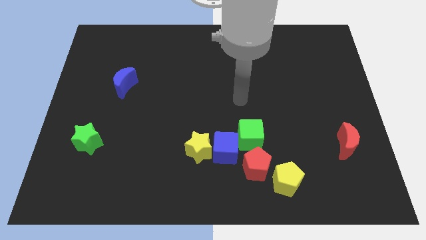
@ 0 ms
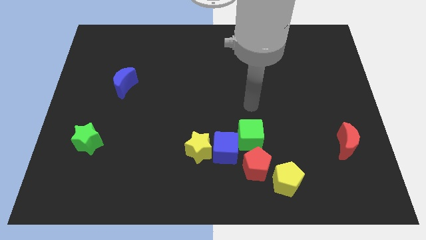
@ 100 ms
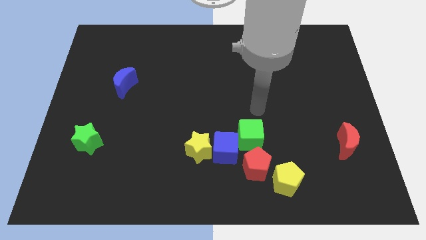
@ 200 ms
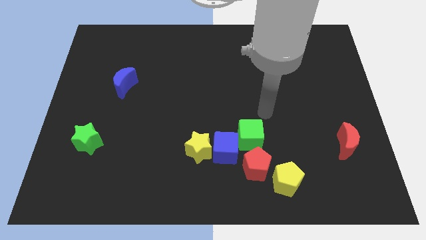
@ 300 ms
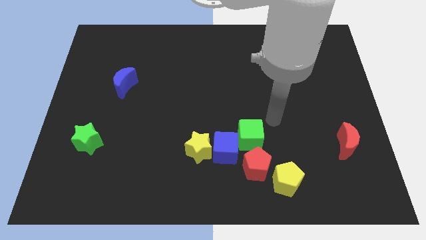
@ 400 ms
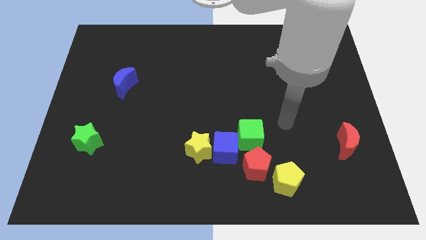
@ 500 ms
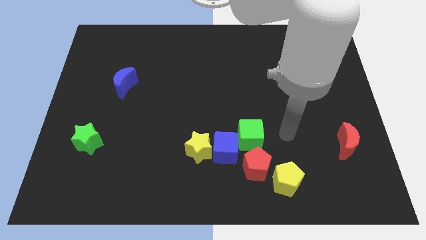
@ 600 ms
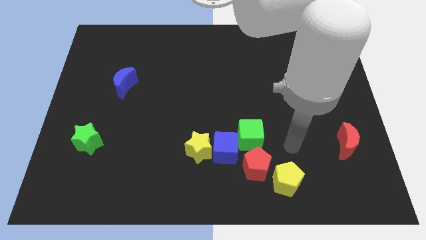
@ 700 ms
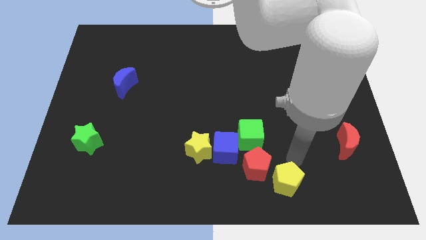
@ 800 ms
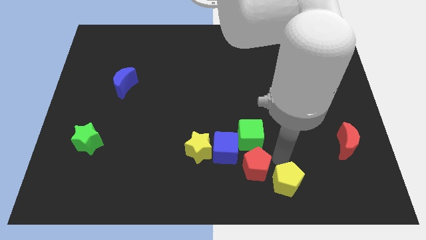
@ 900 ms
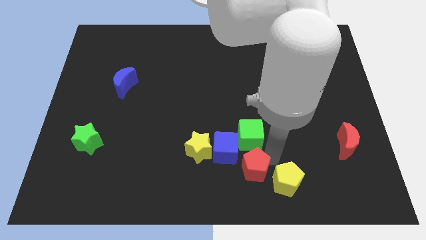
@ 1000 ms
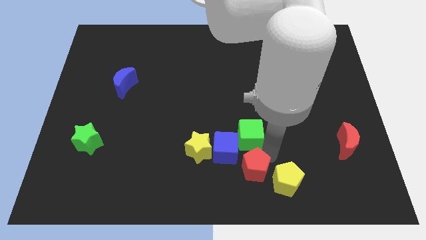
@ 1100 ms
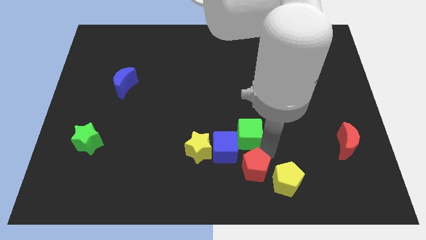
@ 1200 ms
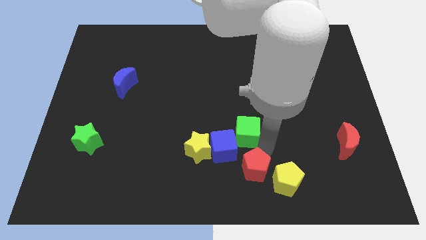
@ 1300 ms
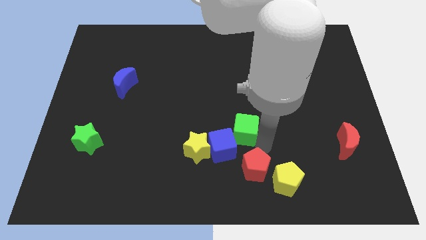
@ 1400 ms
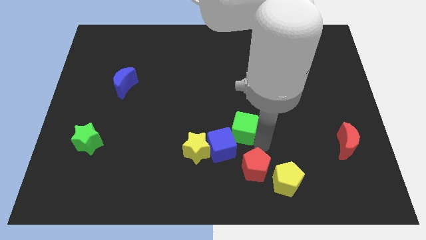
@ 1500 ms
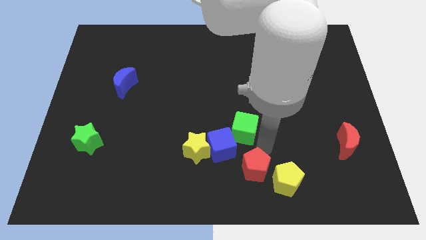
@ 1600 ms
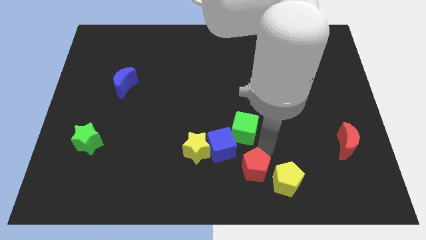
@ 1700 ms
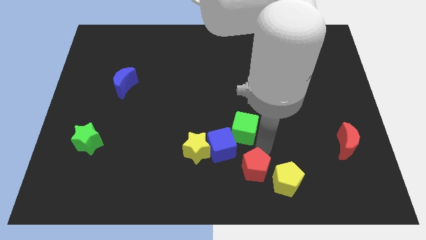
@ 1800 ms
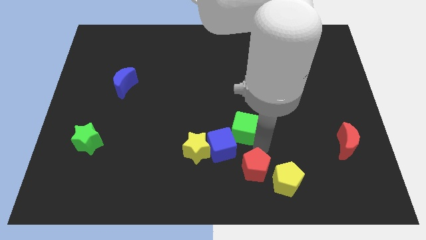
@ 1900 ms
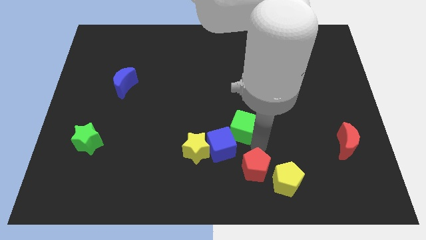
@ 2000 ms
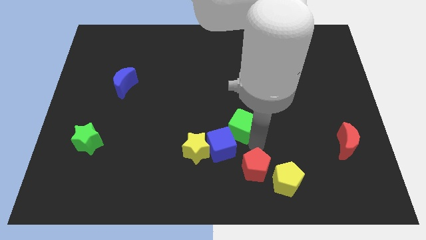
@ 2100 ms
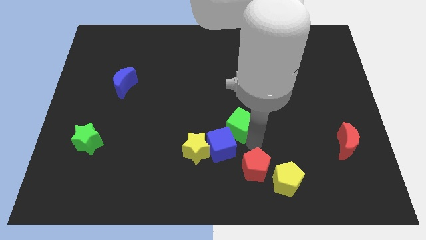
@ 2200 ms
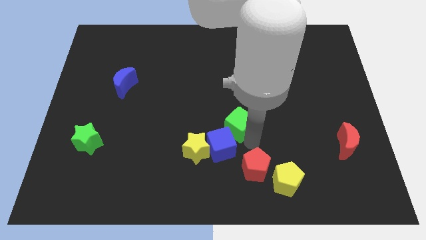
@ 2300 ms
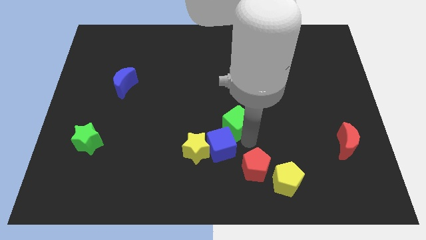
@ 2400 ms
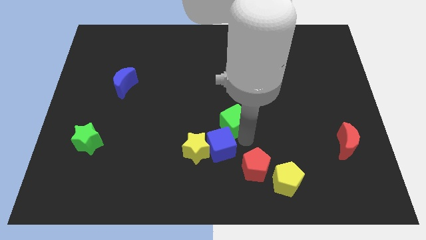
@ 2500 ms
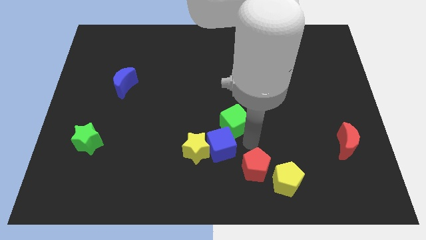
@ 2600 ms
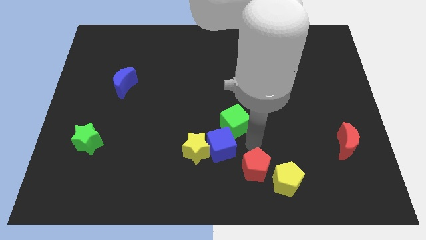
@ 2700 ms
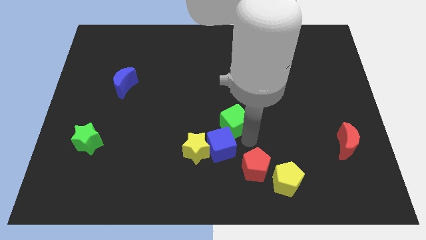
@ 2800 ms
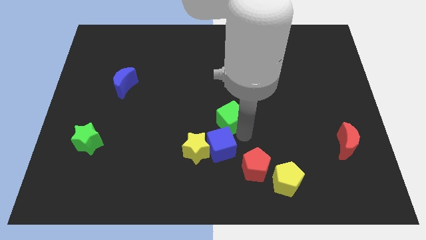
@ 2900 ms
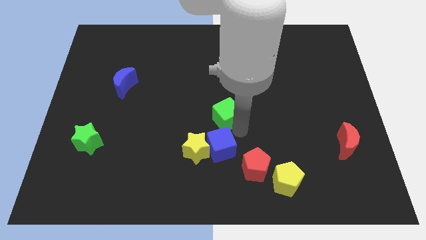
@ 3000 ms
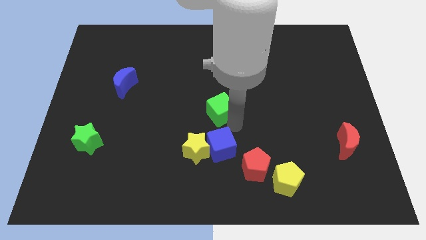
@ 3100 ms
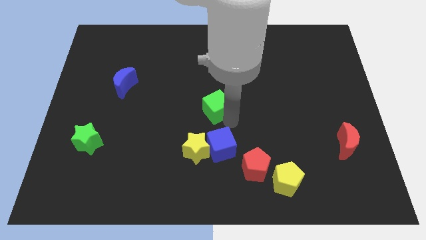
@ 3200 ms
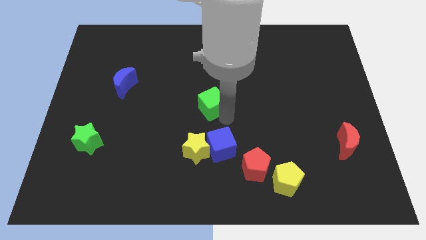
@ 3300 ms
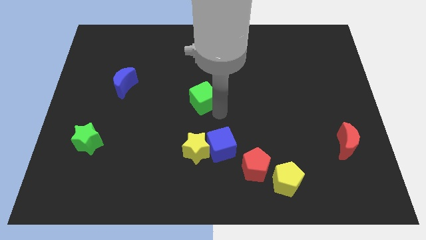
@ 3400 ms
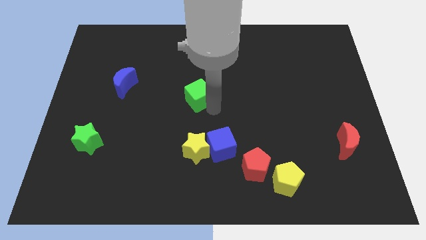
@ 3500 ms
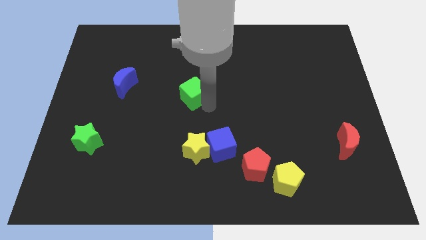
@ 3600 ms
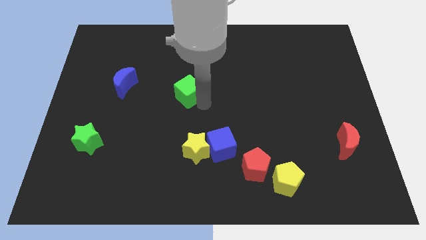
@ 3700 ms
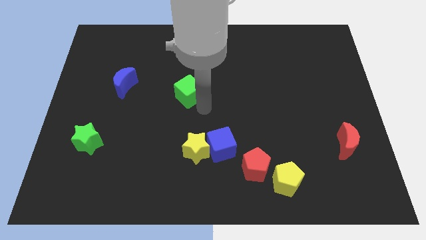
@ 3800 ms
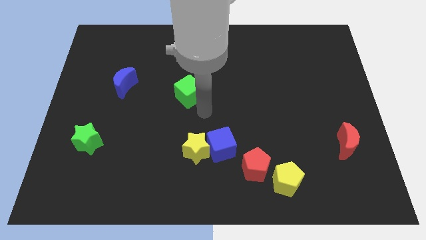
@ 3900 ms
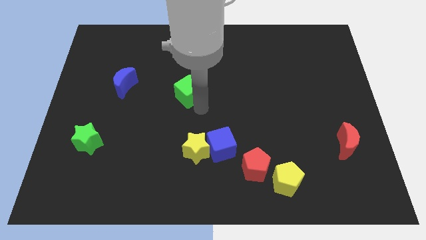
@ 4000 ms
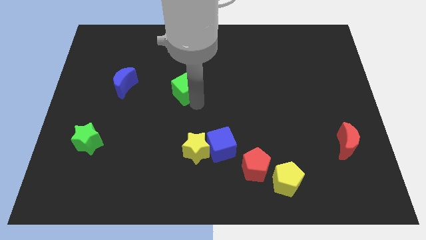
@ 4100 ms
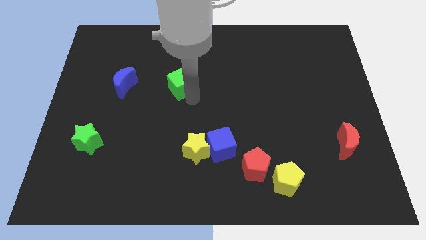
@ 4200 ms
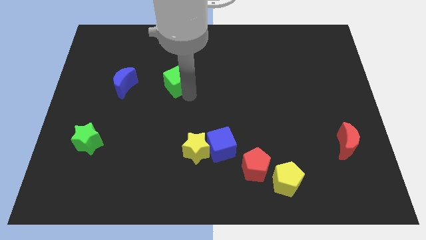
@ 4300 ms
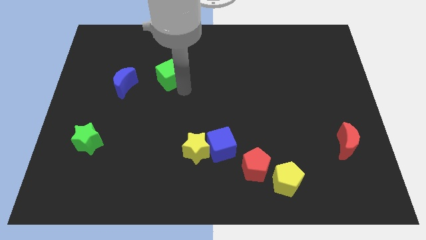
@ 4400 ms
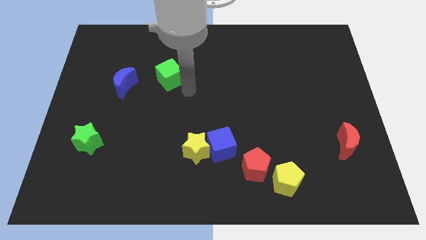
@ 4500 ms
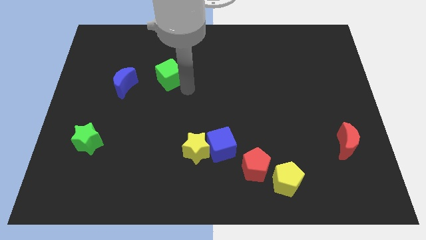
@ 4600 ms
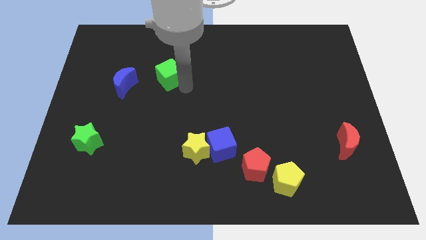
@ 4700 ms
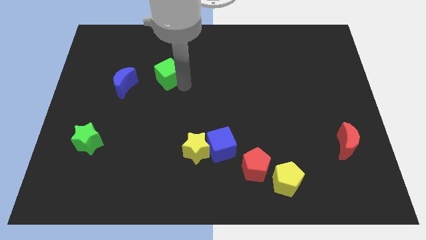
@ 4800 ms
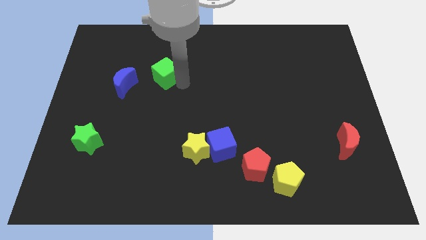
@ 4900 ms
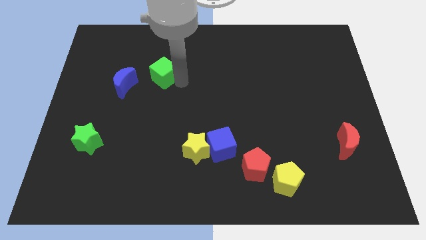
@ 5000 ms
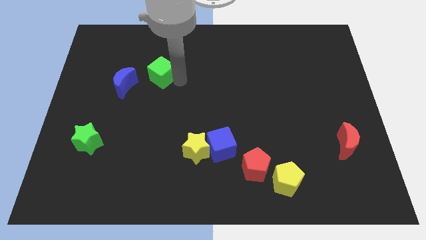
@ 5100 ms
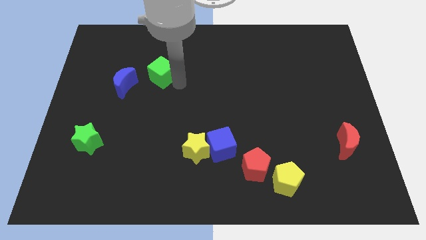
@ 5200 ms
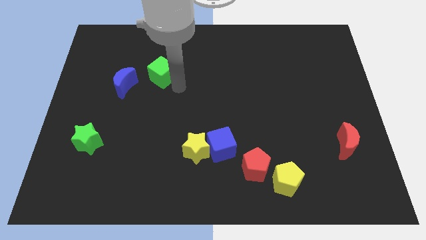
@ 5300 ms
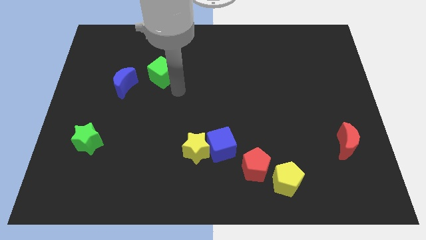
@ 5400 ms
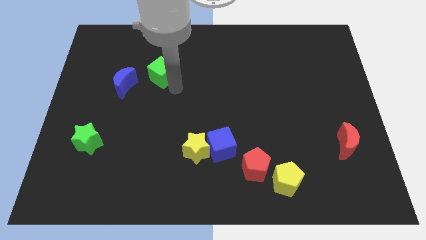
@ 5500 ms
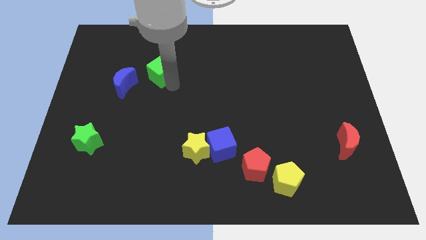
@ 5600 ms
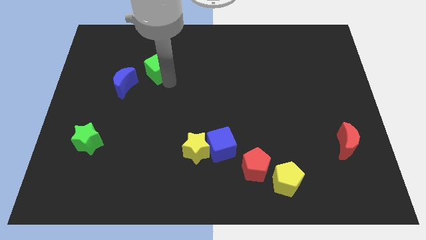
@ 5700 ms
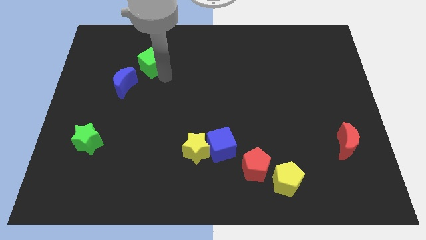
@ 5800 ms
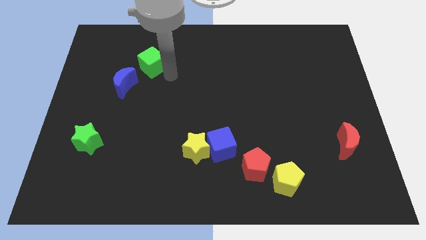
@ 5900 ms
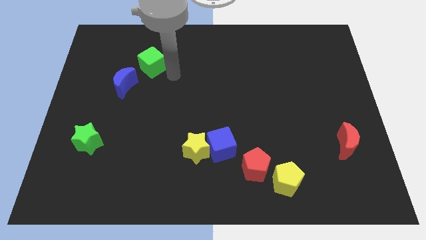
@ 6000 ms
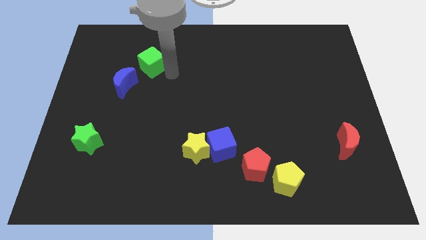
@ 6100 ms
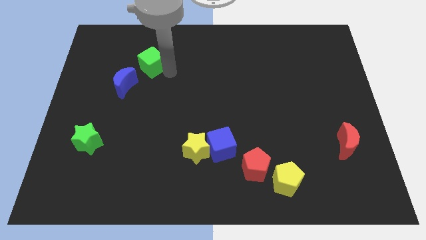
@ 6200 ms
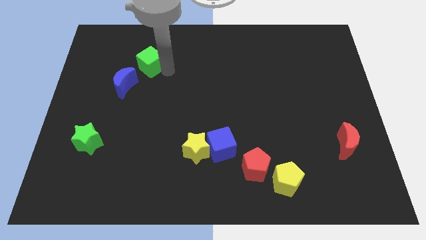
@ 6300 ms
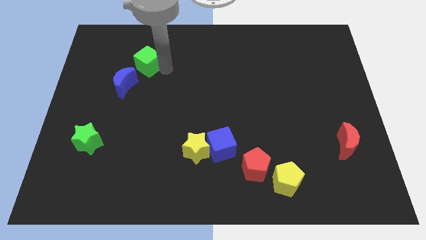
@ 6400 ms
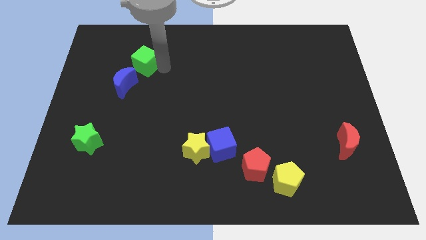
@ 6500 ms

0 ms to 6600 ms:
slide the green cube to the top side of the blue moon

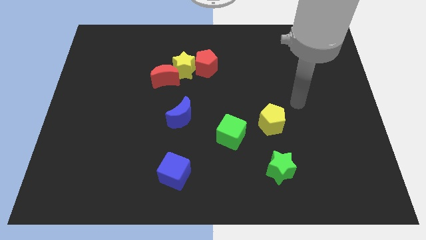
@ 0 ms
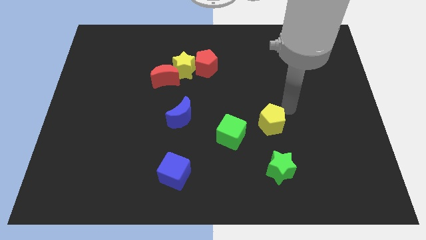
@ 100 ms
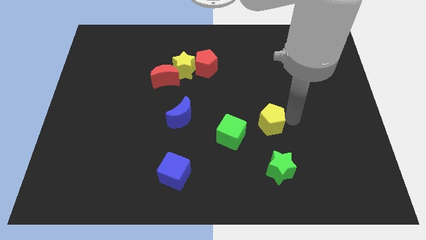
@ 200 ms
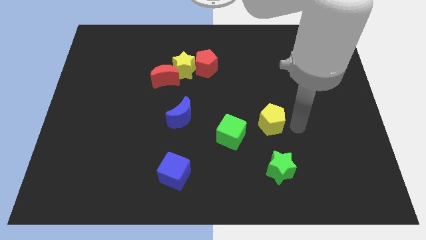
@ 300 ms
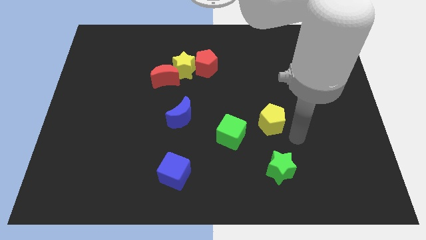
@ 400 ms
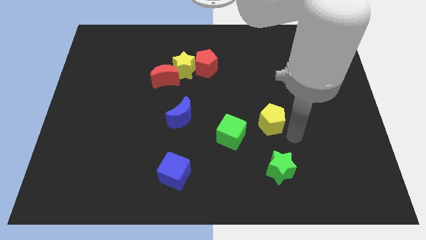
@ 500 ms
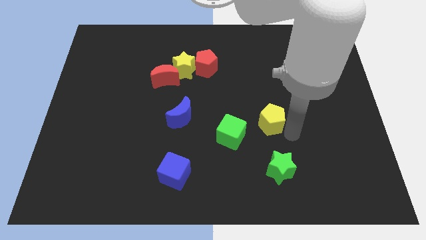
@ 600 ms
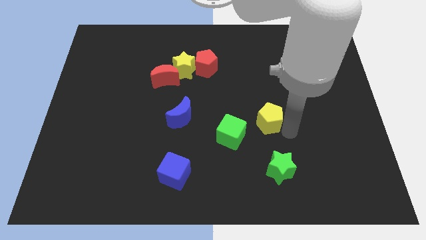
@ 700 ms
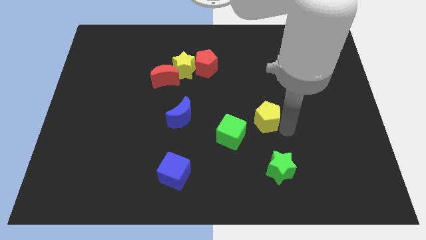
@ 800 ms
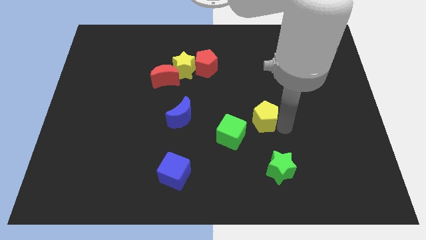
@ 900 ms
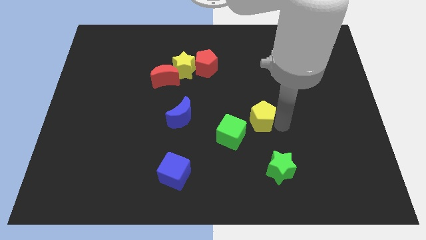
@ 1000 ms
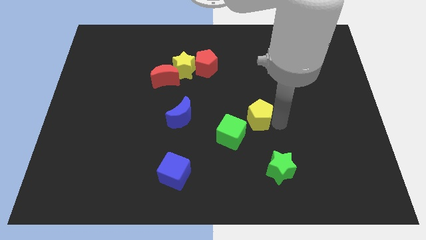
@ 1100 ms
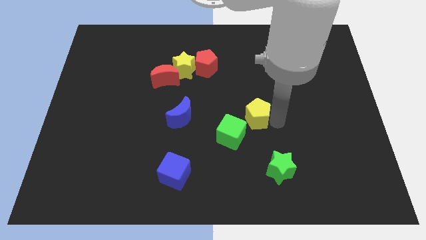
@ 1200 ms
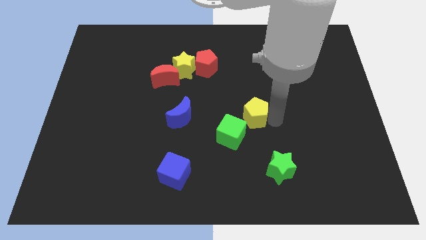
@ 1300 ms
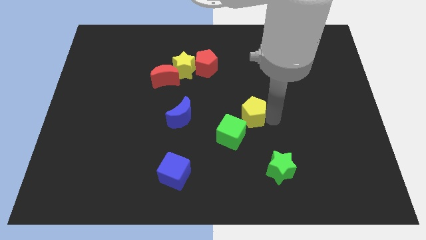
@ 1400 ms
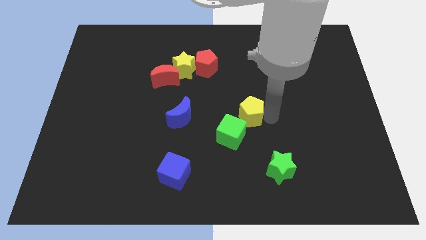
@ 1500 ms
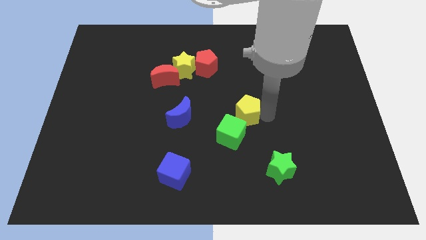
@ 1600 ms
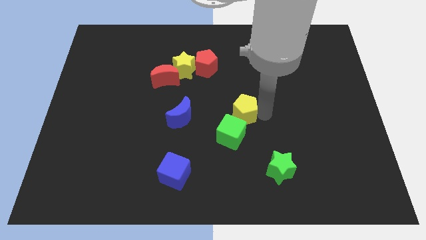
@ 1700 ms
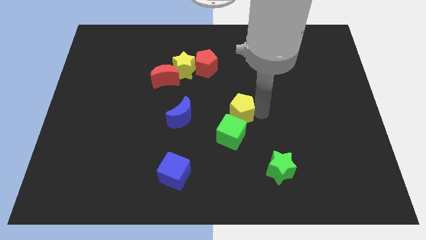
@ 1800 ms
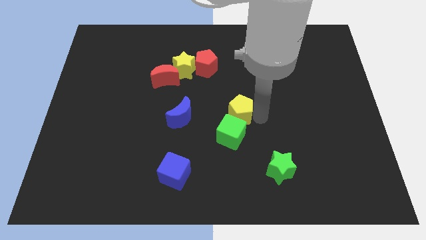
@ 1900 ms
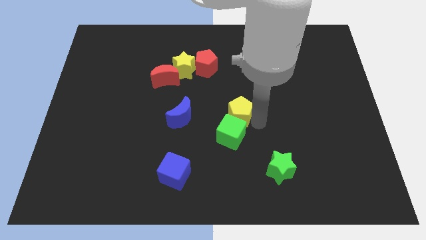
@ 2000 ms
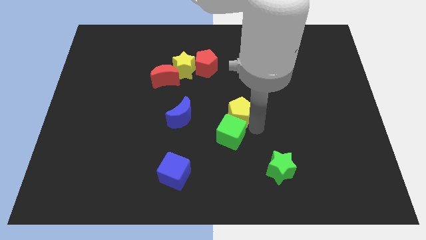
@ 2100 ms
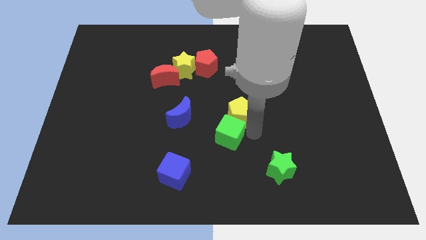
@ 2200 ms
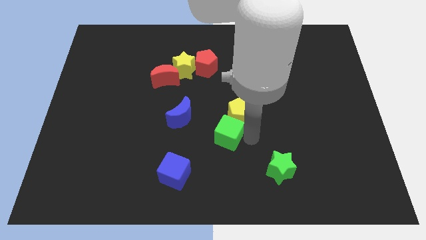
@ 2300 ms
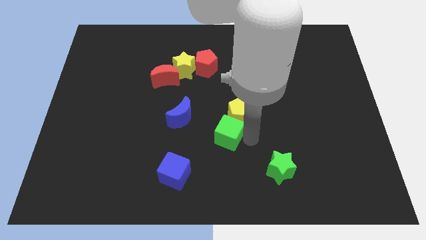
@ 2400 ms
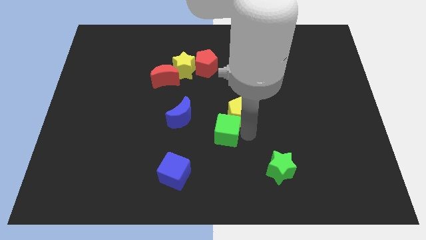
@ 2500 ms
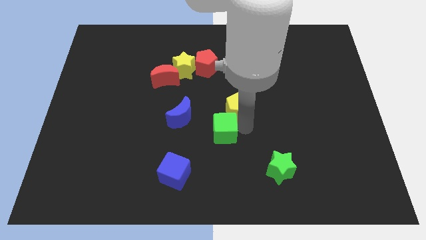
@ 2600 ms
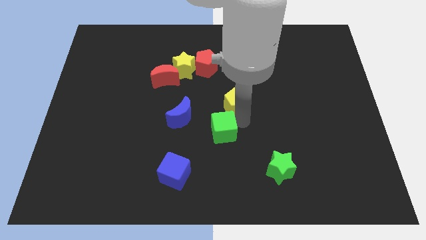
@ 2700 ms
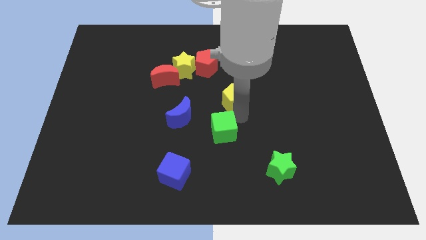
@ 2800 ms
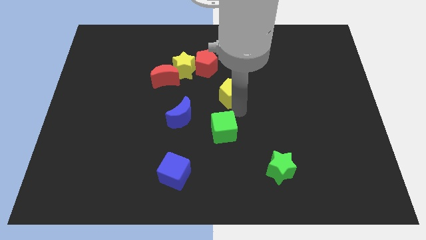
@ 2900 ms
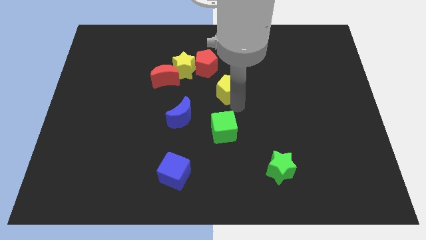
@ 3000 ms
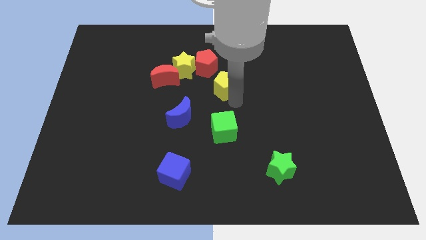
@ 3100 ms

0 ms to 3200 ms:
push the yellow pentagon to the right side of the red moon
